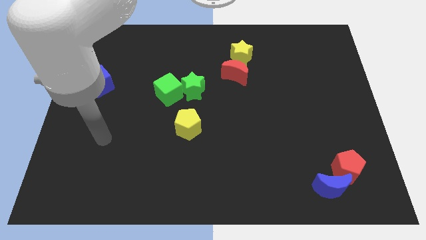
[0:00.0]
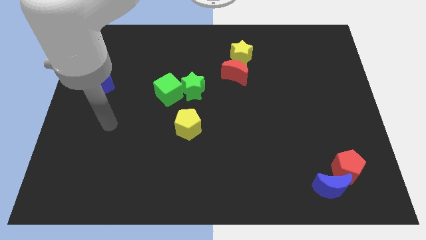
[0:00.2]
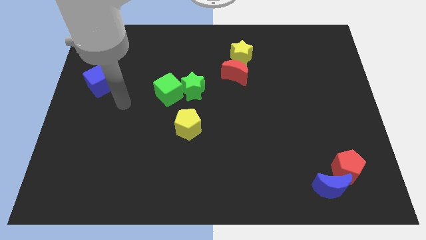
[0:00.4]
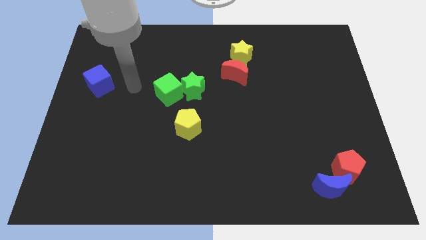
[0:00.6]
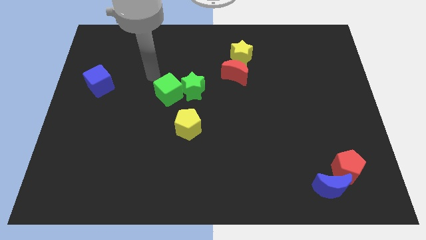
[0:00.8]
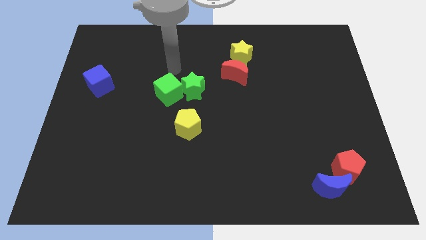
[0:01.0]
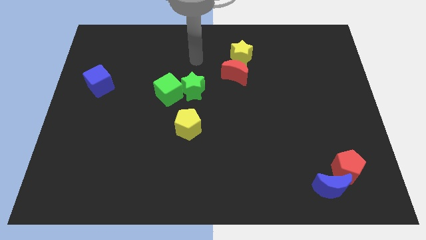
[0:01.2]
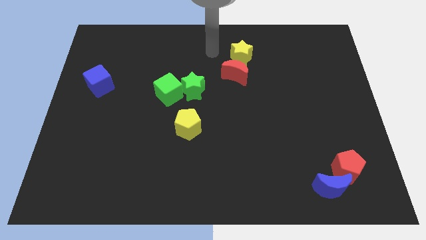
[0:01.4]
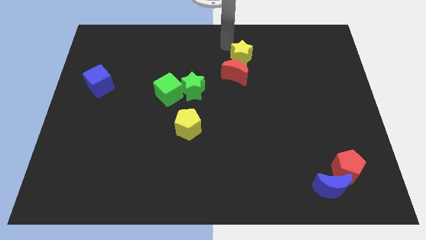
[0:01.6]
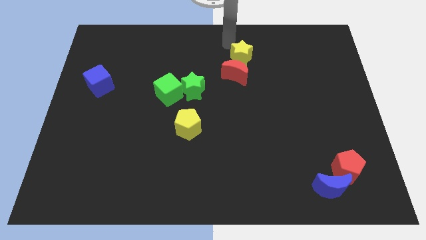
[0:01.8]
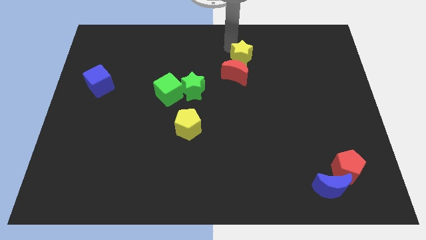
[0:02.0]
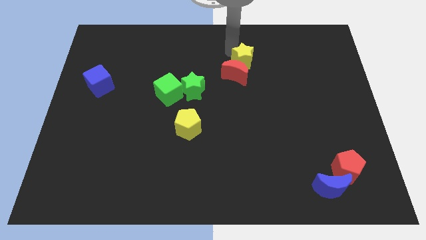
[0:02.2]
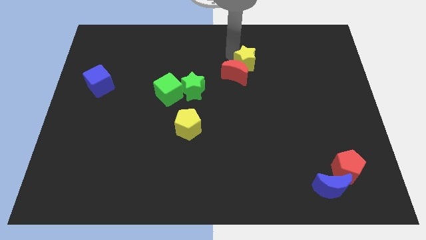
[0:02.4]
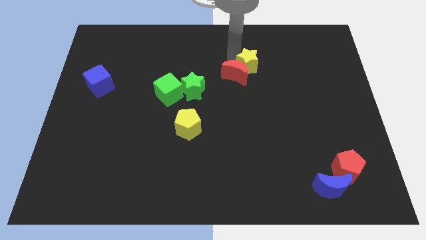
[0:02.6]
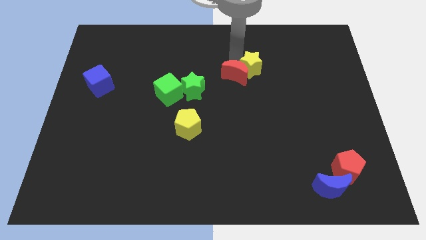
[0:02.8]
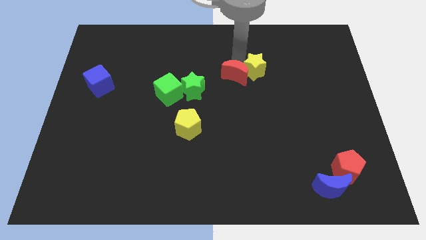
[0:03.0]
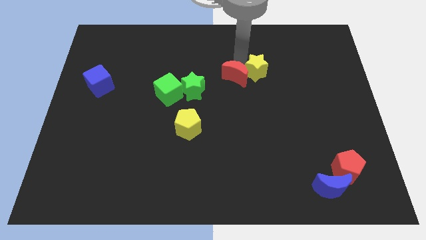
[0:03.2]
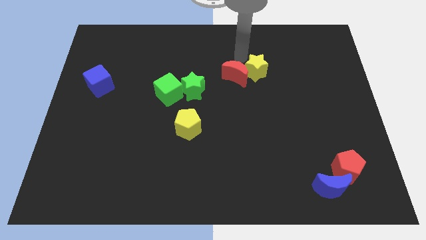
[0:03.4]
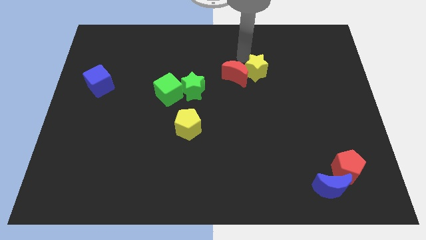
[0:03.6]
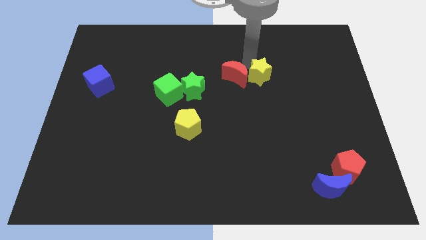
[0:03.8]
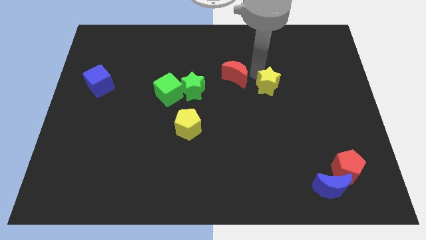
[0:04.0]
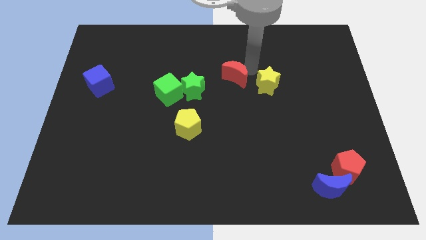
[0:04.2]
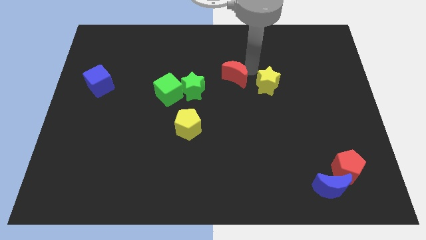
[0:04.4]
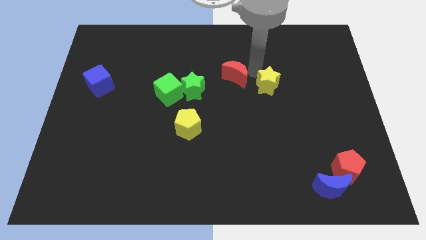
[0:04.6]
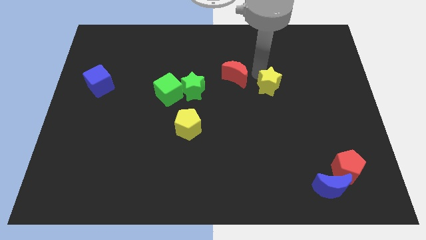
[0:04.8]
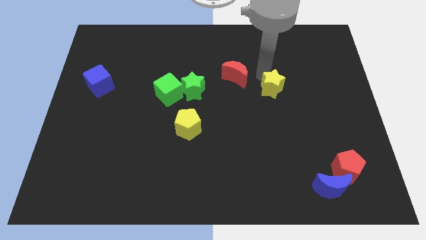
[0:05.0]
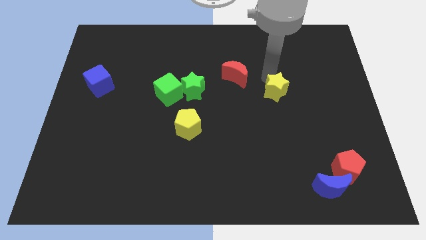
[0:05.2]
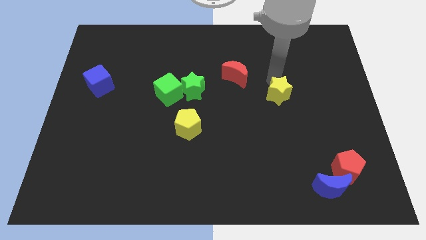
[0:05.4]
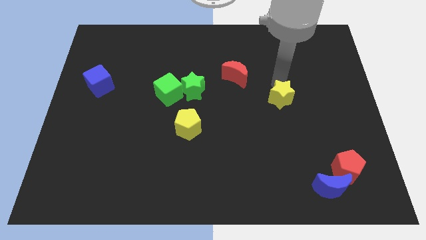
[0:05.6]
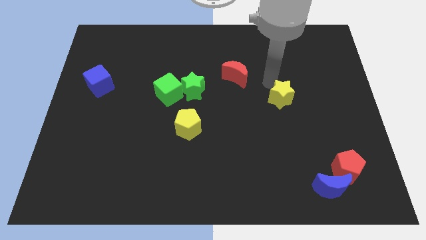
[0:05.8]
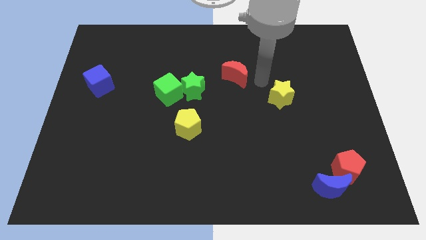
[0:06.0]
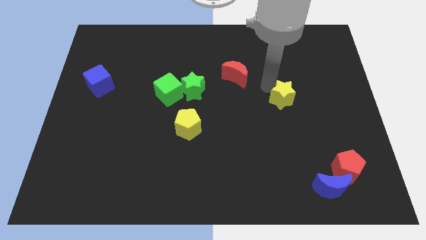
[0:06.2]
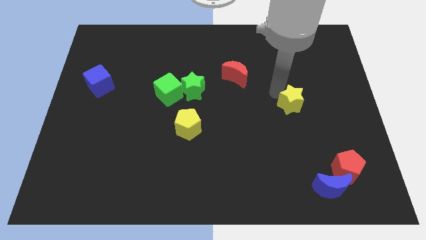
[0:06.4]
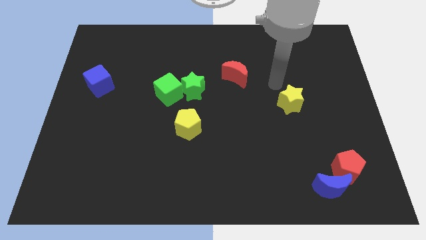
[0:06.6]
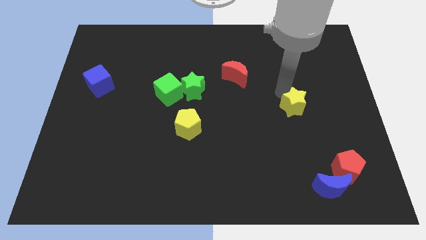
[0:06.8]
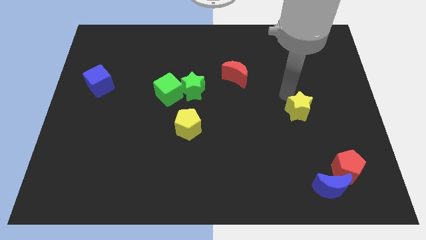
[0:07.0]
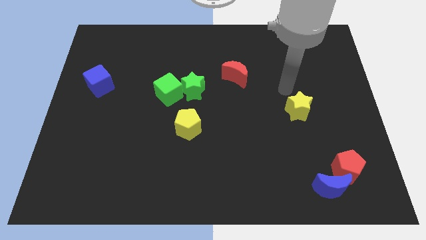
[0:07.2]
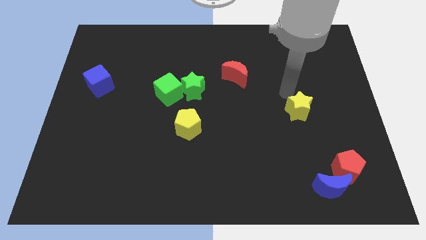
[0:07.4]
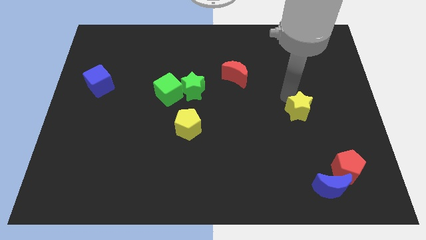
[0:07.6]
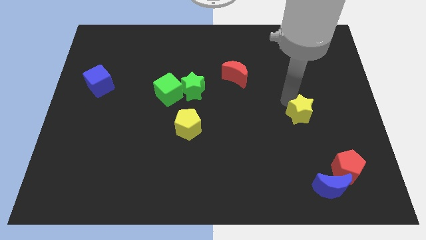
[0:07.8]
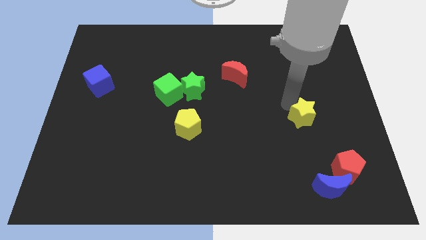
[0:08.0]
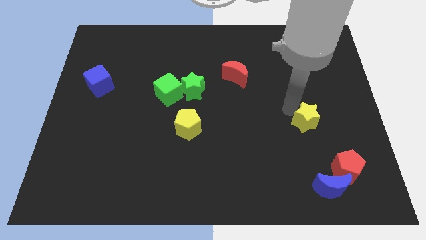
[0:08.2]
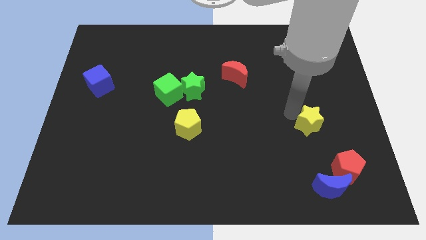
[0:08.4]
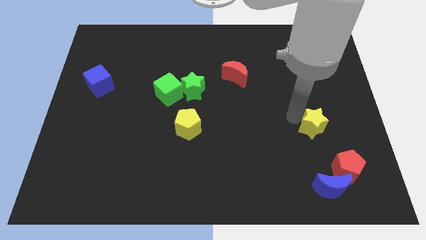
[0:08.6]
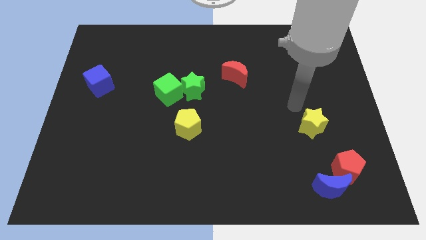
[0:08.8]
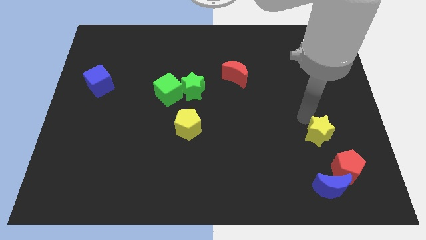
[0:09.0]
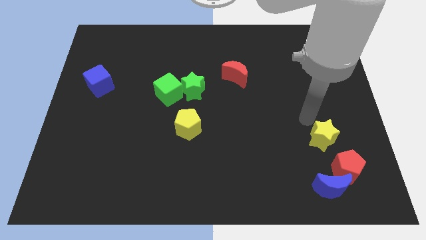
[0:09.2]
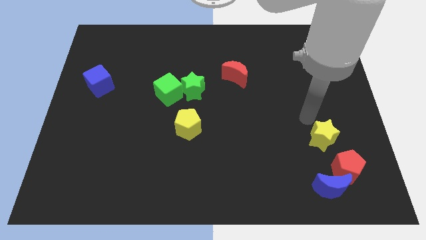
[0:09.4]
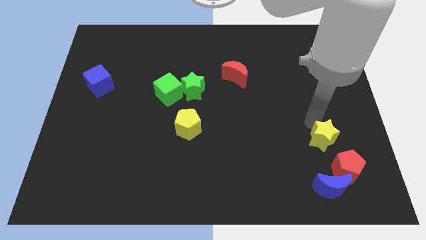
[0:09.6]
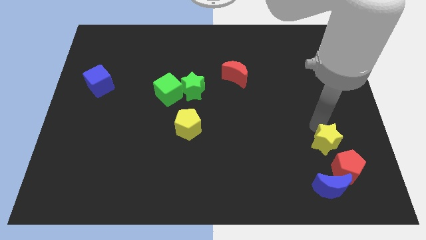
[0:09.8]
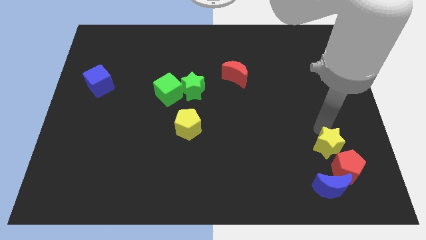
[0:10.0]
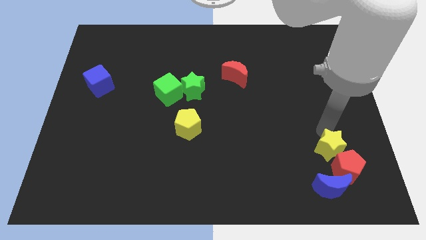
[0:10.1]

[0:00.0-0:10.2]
put the yellow star to the red pentagon

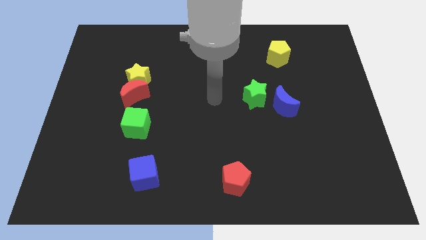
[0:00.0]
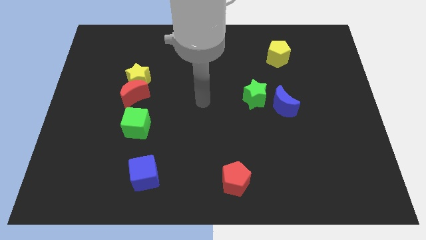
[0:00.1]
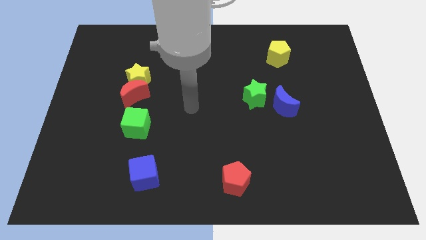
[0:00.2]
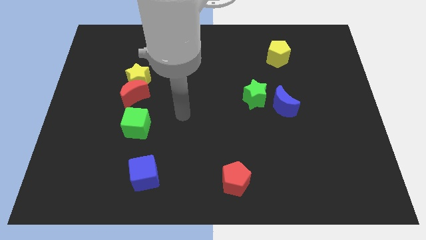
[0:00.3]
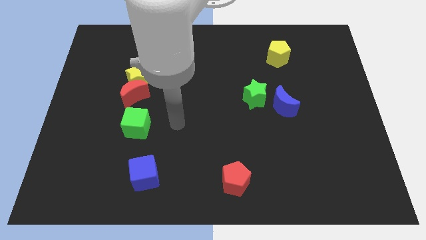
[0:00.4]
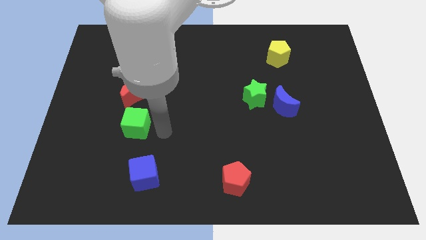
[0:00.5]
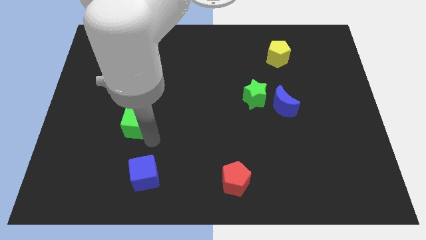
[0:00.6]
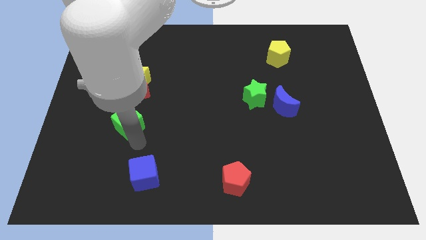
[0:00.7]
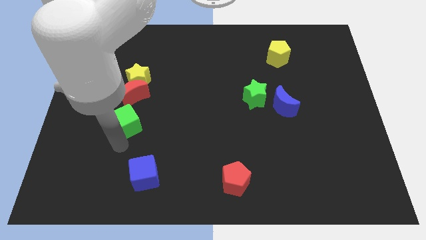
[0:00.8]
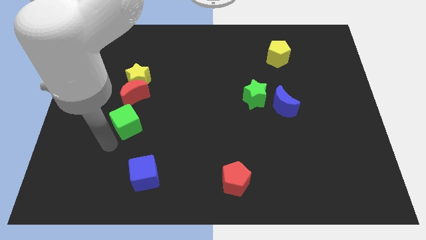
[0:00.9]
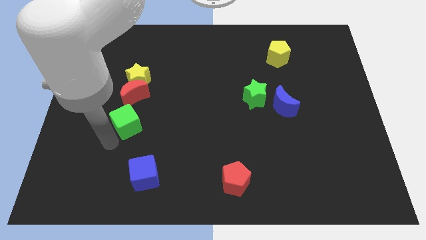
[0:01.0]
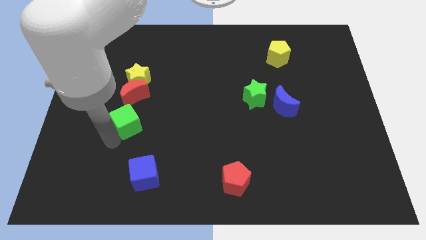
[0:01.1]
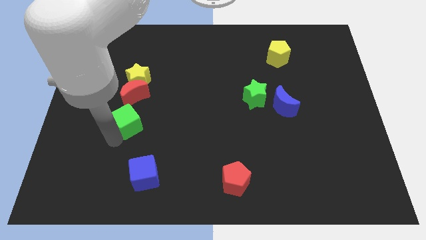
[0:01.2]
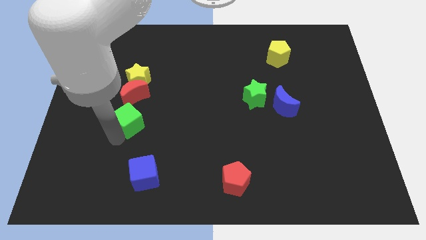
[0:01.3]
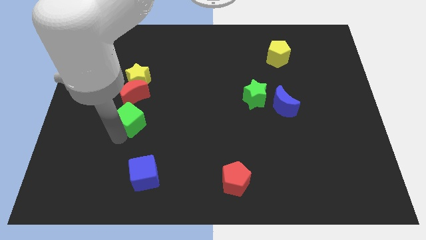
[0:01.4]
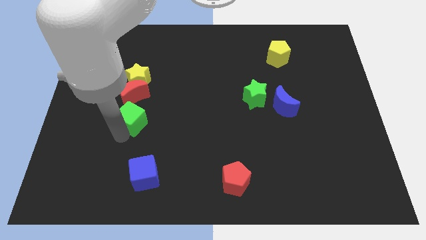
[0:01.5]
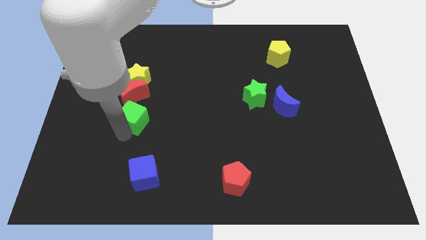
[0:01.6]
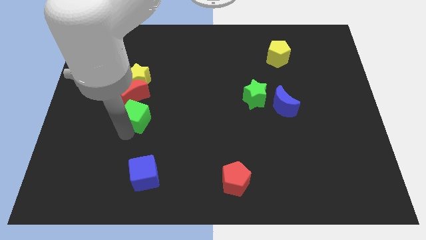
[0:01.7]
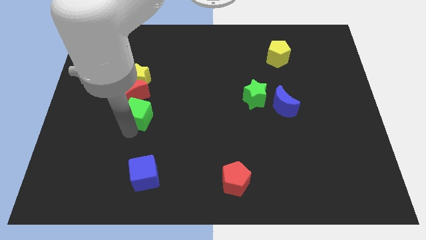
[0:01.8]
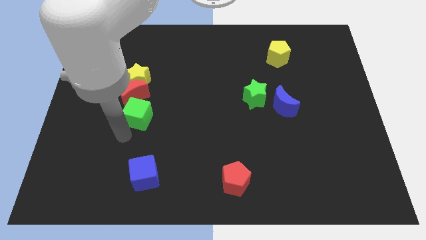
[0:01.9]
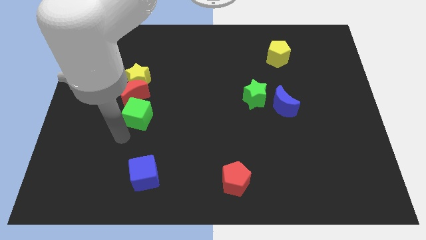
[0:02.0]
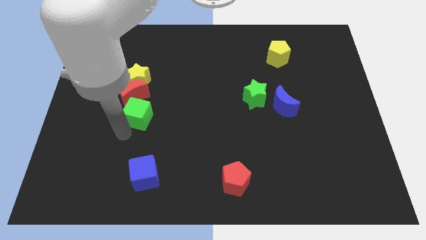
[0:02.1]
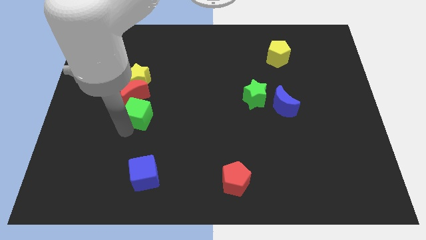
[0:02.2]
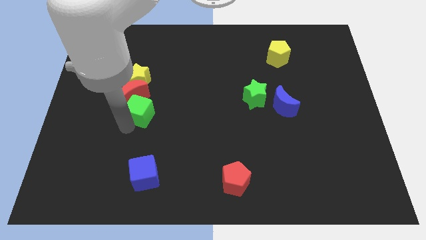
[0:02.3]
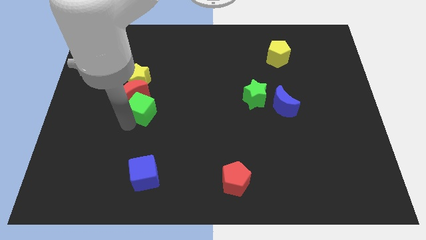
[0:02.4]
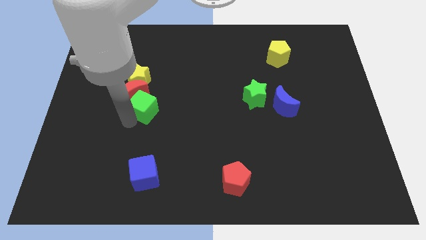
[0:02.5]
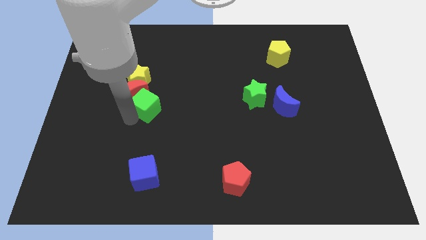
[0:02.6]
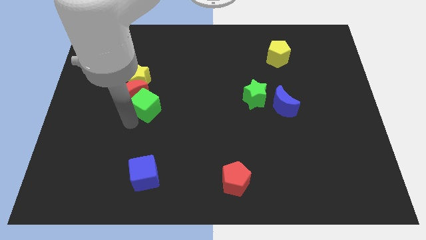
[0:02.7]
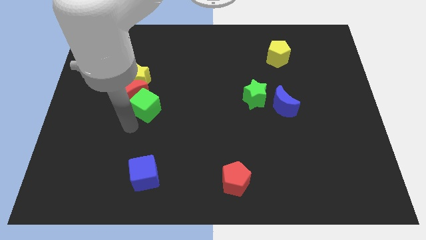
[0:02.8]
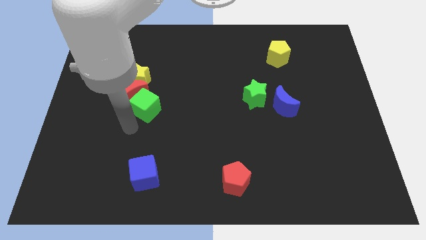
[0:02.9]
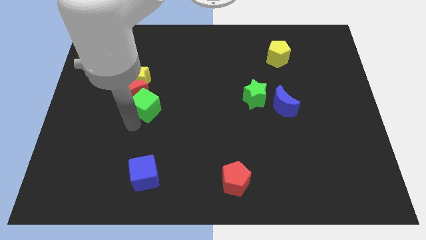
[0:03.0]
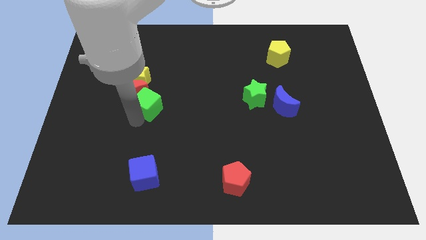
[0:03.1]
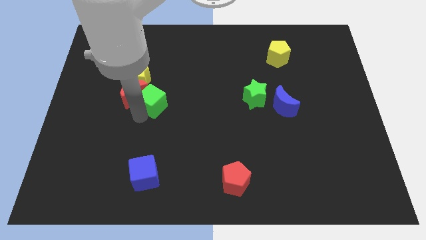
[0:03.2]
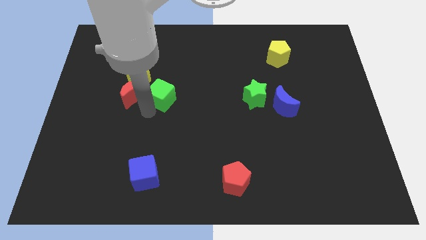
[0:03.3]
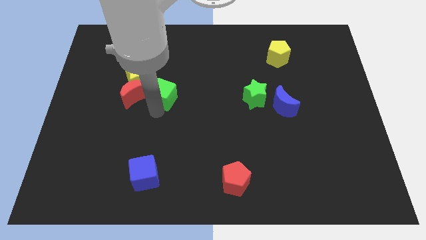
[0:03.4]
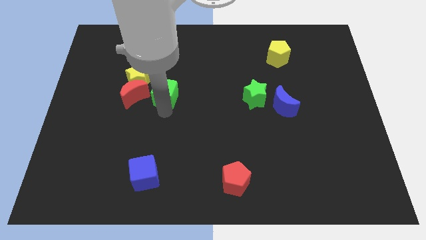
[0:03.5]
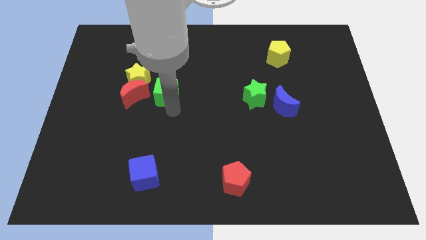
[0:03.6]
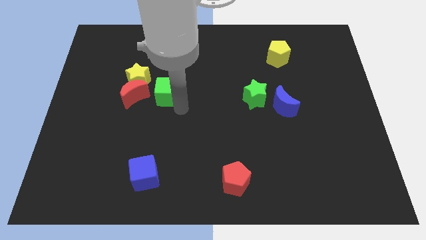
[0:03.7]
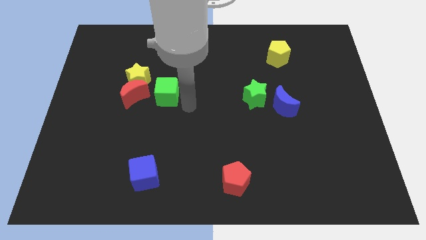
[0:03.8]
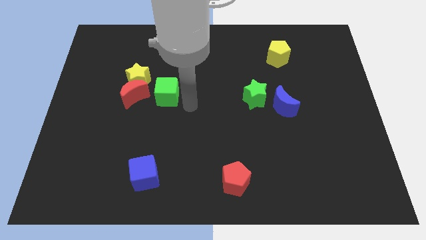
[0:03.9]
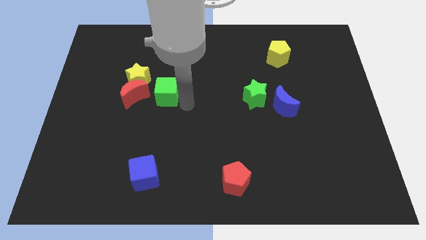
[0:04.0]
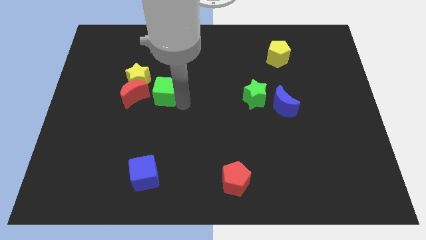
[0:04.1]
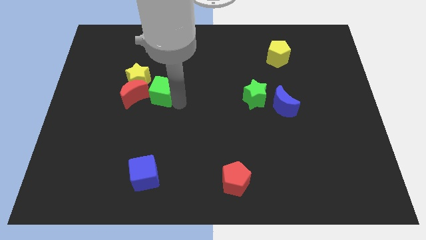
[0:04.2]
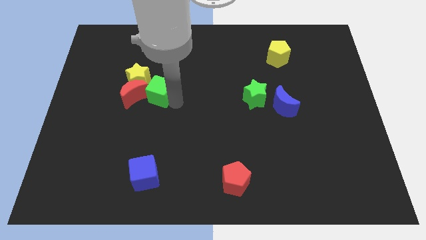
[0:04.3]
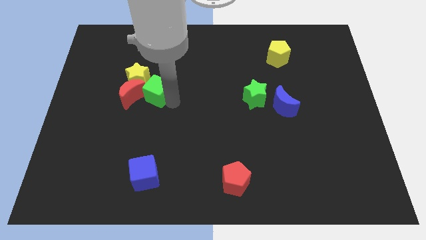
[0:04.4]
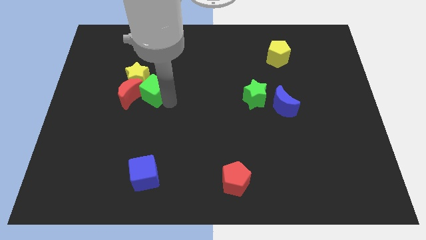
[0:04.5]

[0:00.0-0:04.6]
push the green cube close to the yellow star
